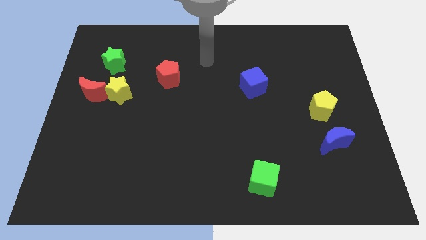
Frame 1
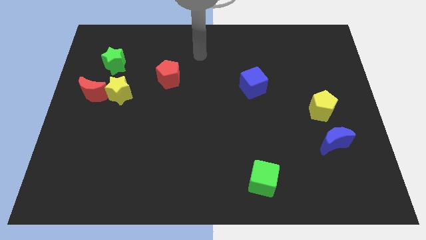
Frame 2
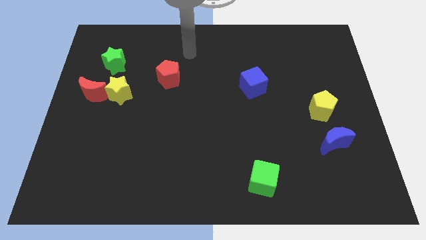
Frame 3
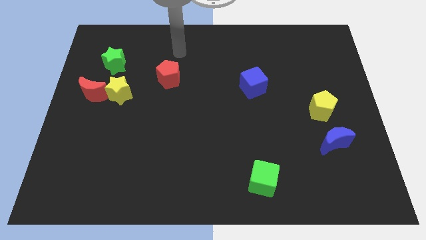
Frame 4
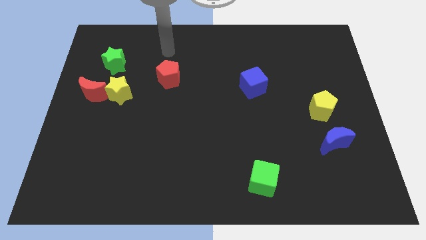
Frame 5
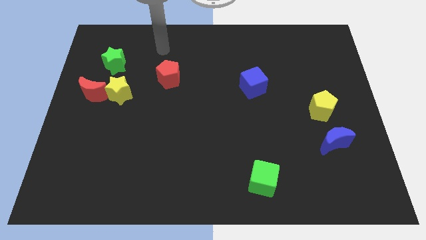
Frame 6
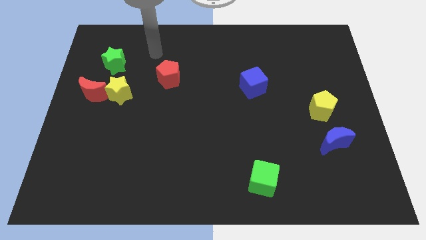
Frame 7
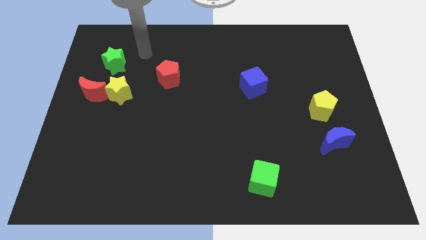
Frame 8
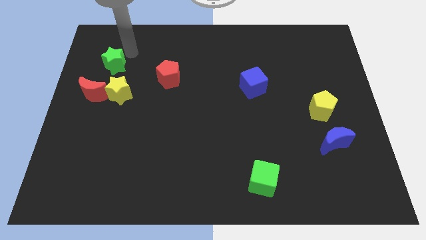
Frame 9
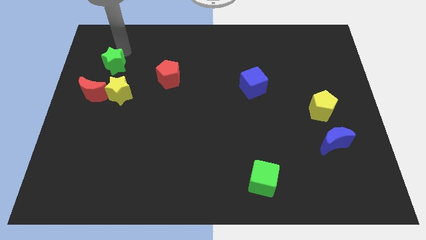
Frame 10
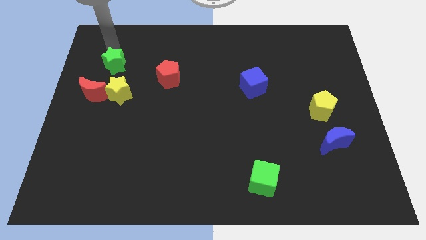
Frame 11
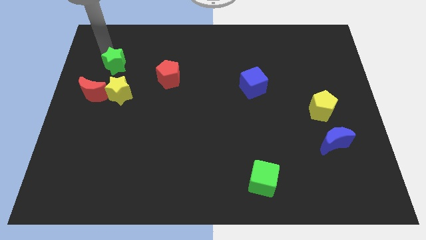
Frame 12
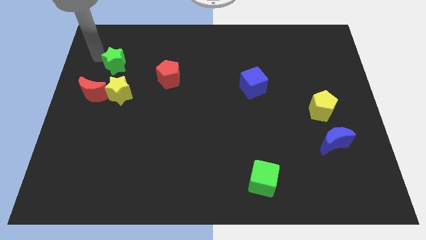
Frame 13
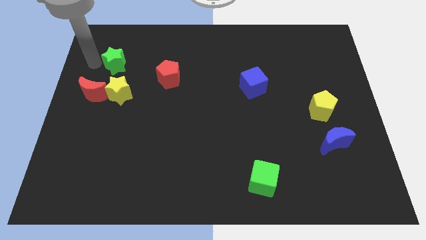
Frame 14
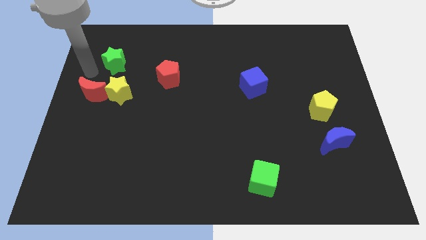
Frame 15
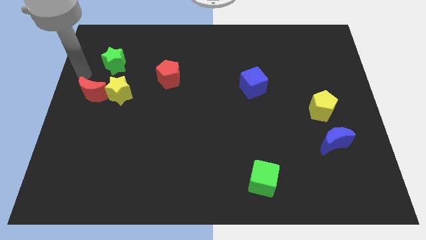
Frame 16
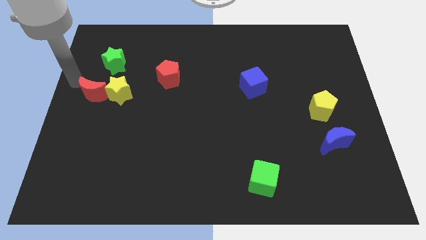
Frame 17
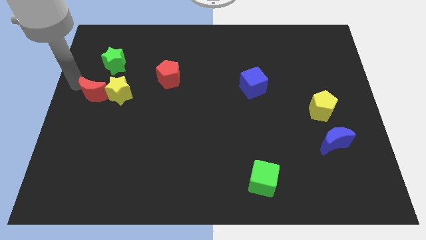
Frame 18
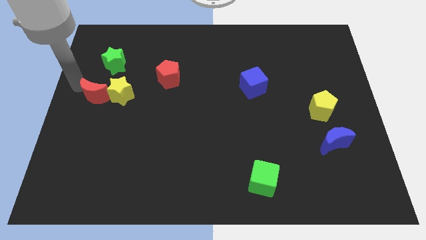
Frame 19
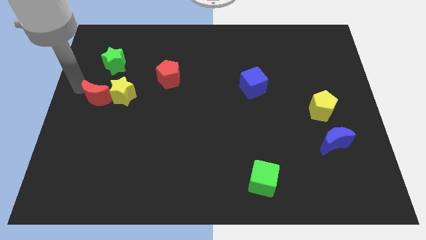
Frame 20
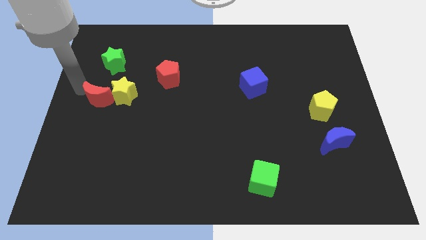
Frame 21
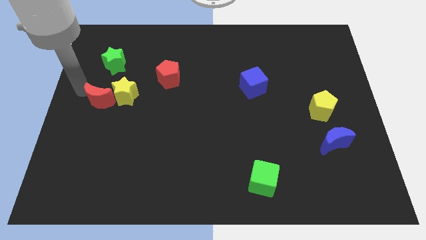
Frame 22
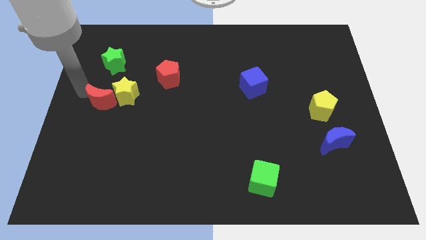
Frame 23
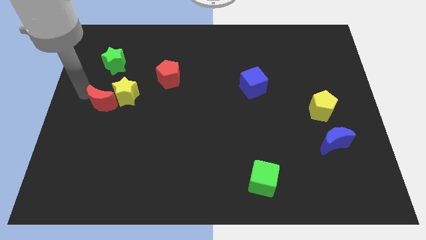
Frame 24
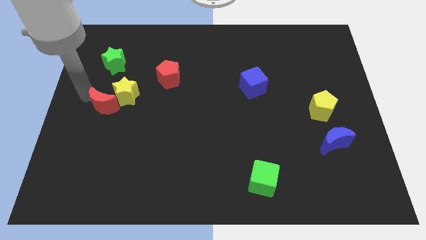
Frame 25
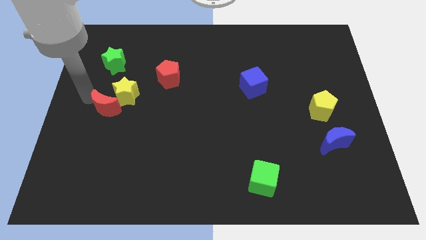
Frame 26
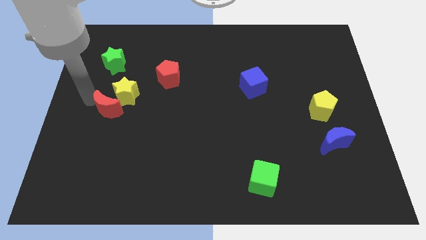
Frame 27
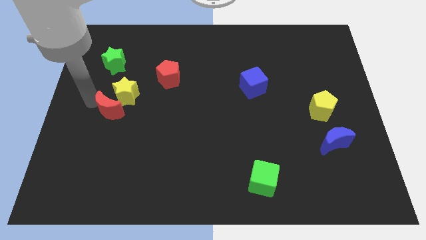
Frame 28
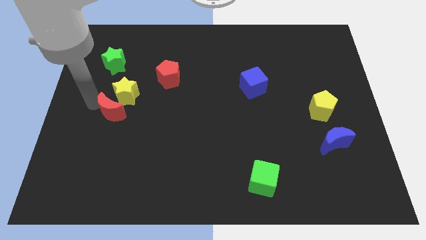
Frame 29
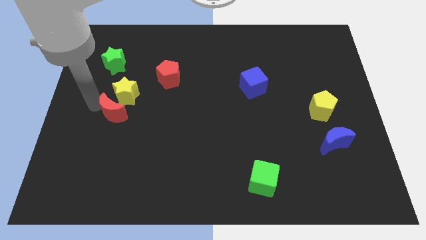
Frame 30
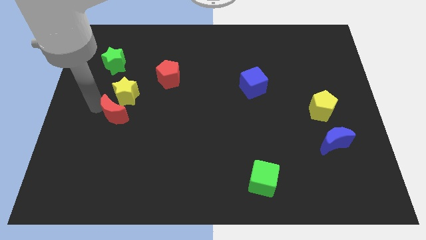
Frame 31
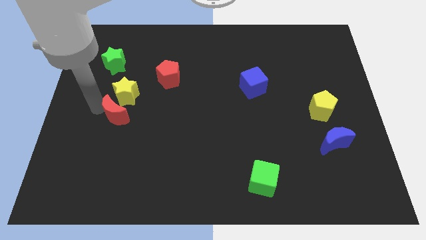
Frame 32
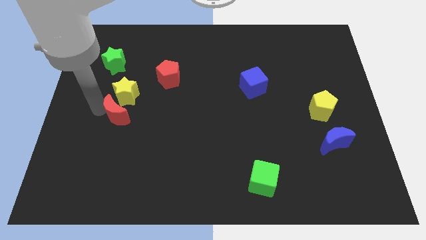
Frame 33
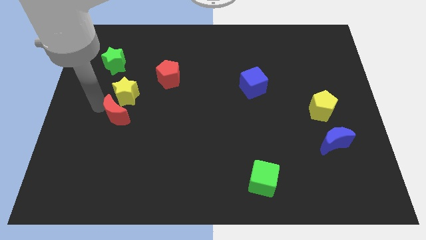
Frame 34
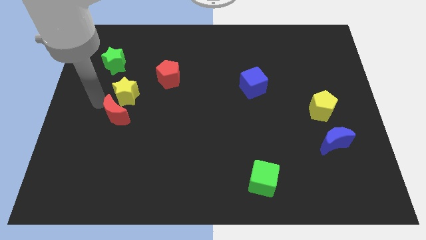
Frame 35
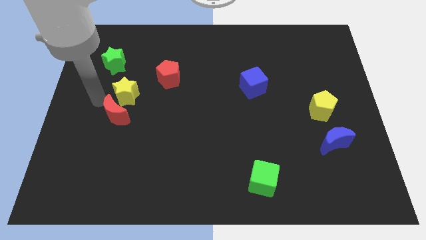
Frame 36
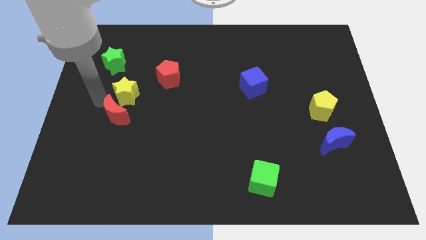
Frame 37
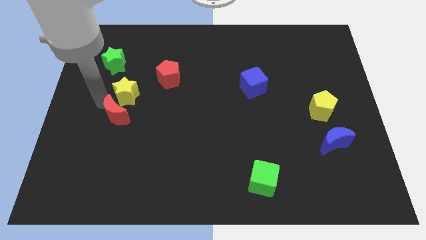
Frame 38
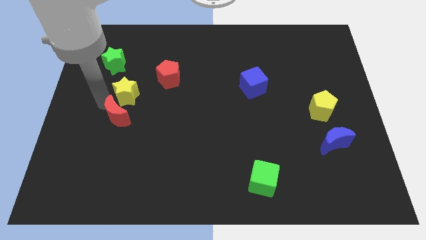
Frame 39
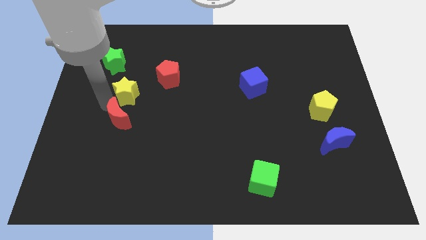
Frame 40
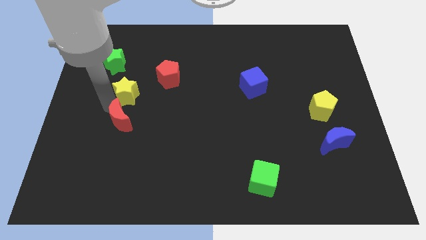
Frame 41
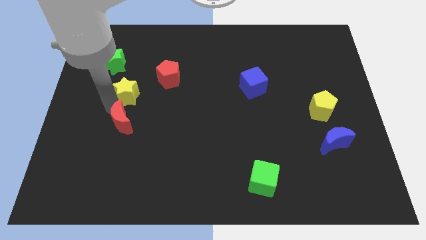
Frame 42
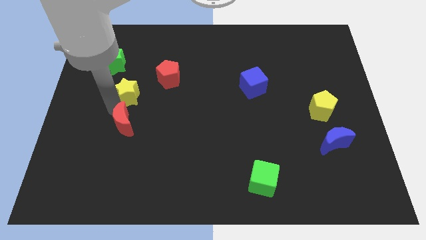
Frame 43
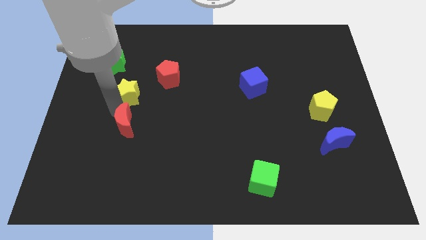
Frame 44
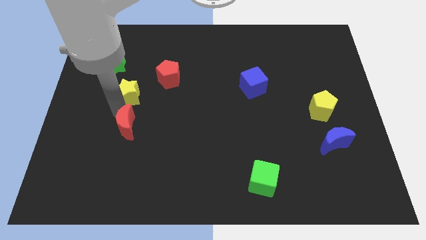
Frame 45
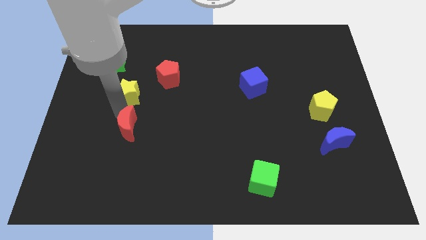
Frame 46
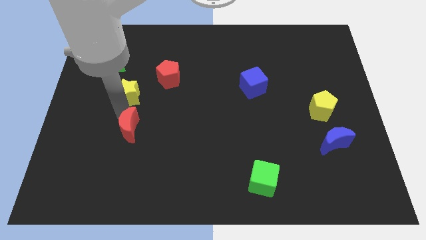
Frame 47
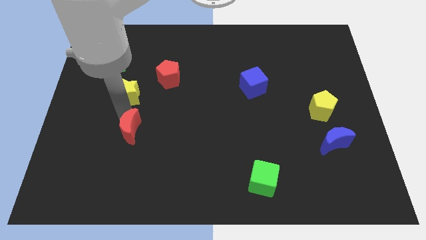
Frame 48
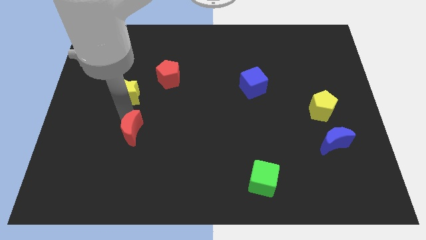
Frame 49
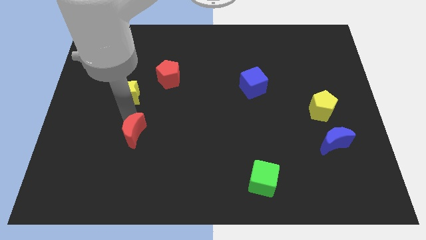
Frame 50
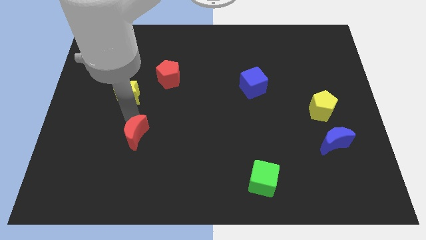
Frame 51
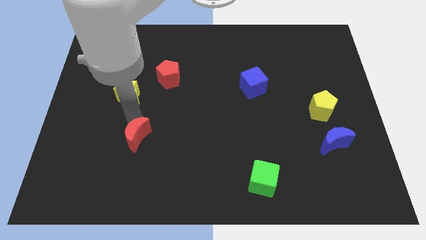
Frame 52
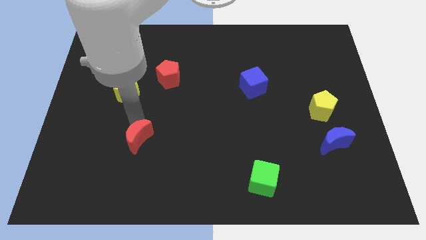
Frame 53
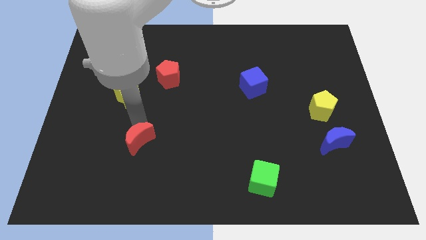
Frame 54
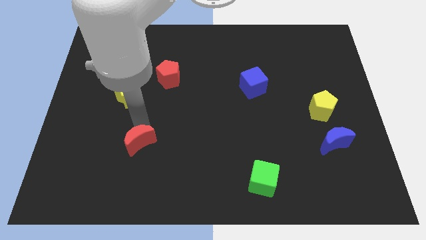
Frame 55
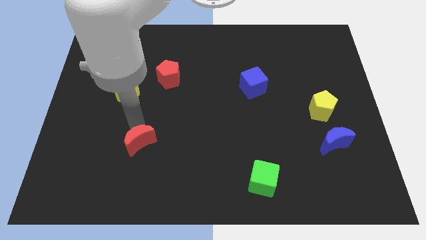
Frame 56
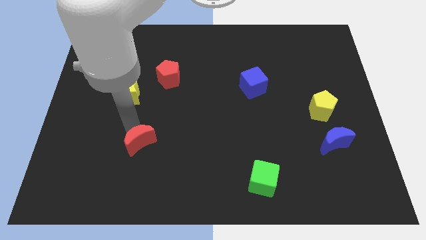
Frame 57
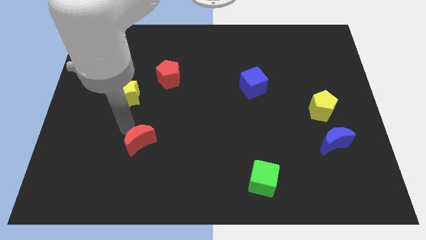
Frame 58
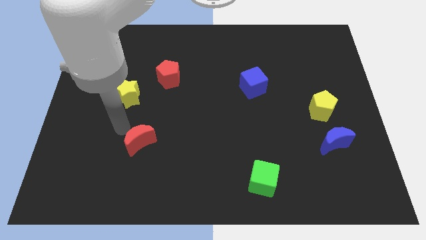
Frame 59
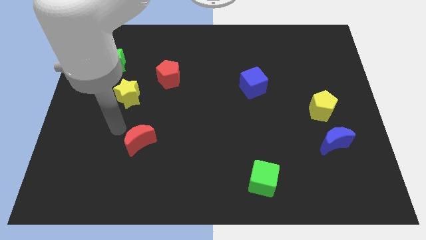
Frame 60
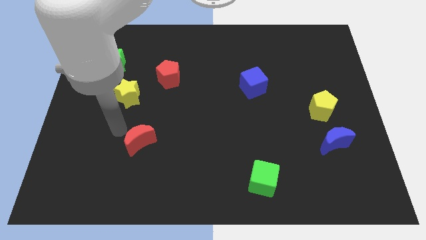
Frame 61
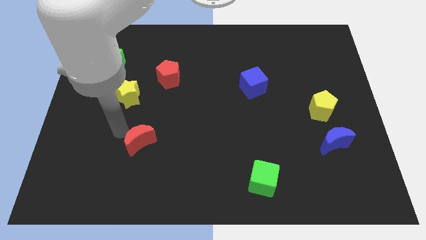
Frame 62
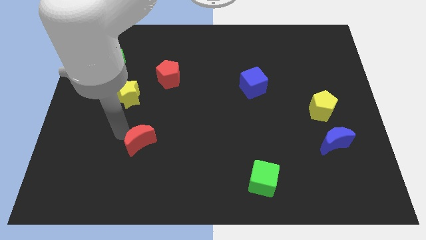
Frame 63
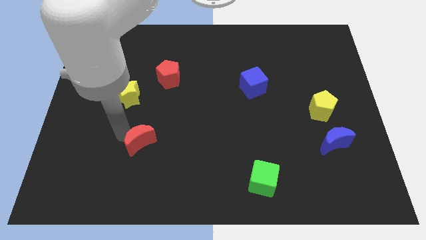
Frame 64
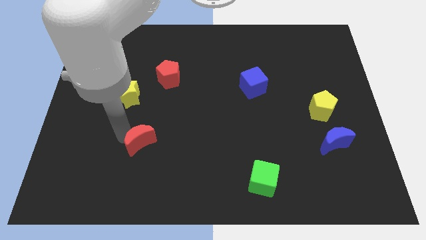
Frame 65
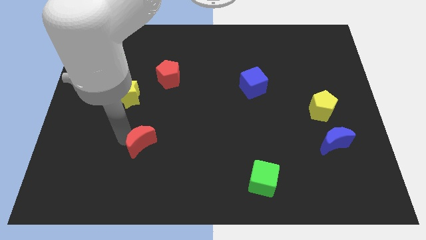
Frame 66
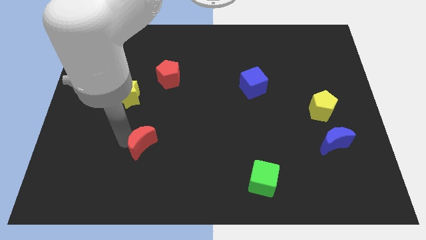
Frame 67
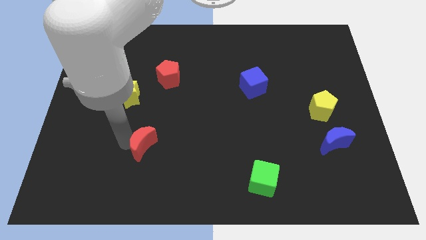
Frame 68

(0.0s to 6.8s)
move the red moon down and right diagonally

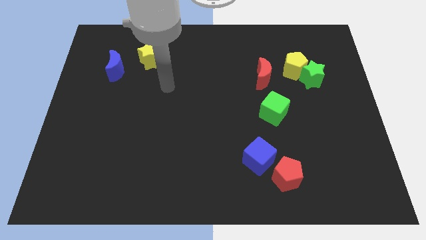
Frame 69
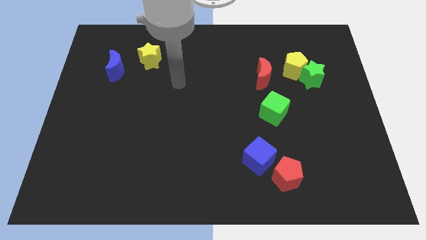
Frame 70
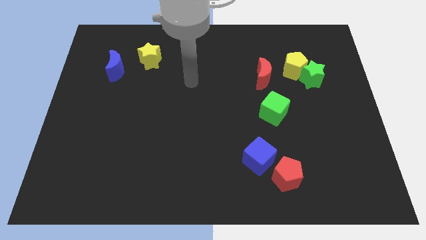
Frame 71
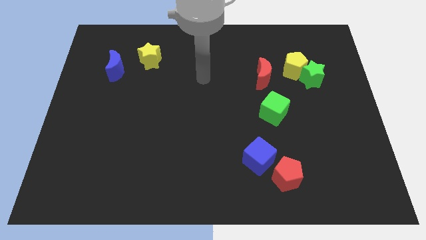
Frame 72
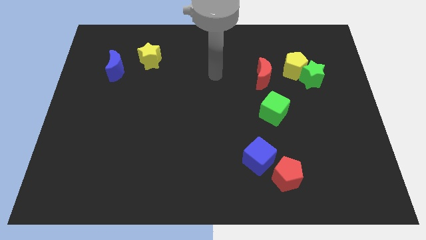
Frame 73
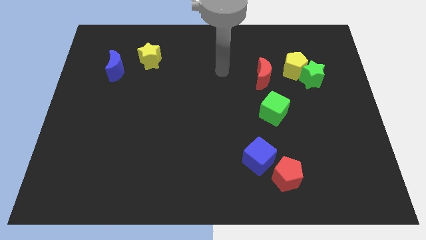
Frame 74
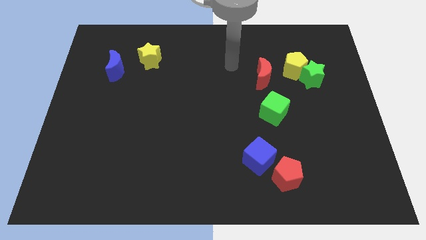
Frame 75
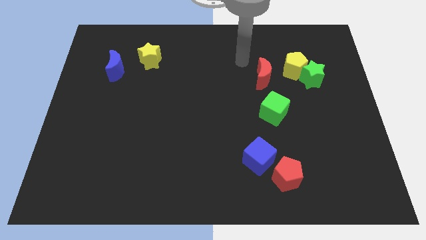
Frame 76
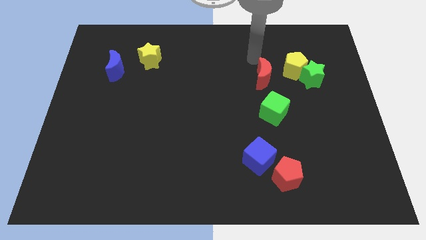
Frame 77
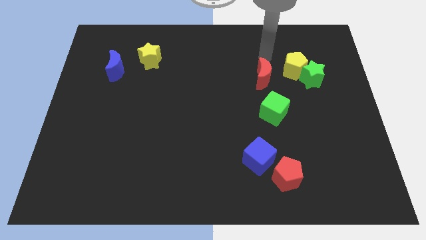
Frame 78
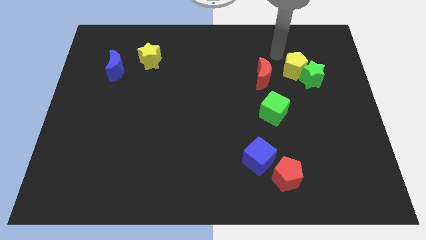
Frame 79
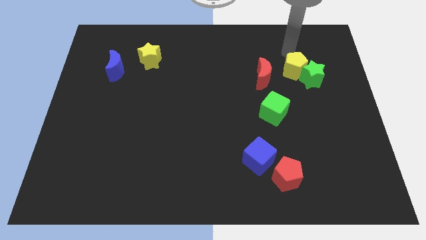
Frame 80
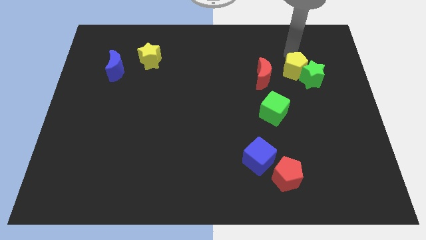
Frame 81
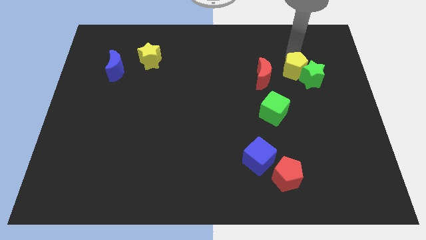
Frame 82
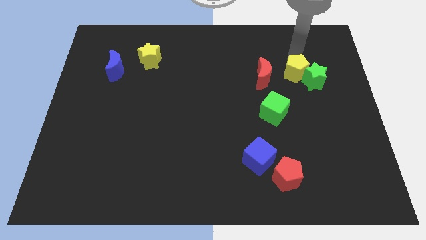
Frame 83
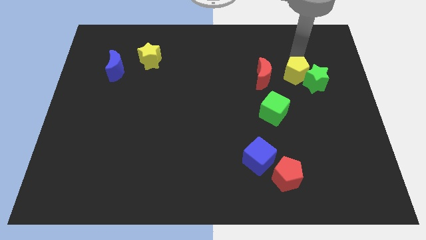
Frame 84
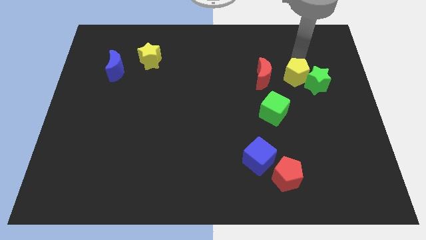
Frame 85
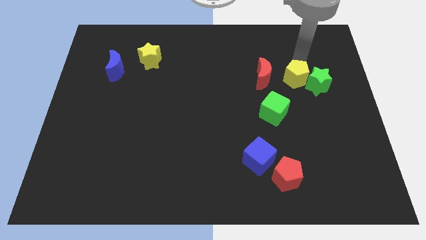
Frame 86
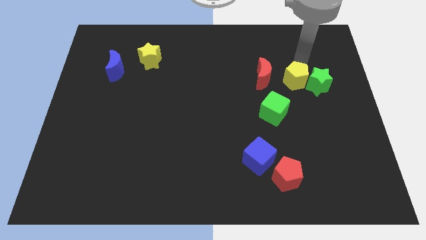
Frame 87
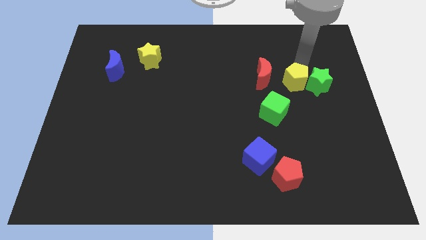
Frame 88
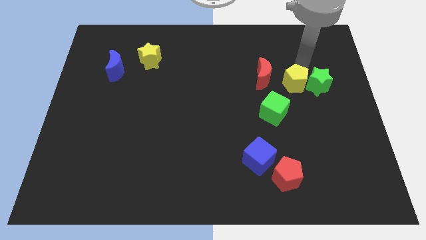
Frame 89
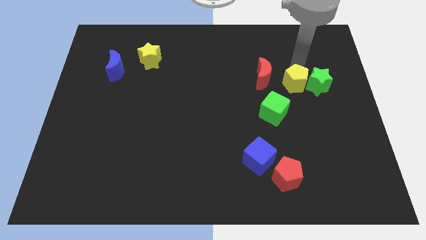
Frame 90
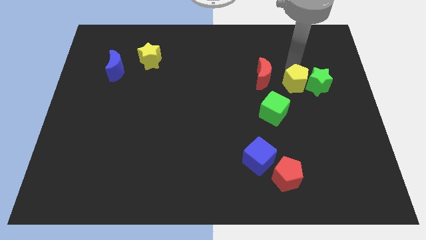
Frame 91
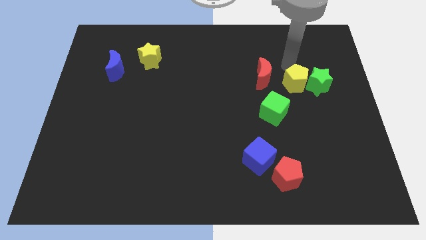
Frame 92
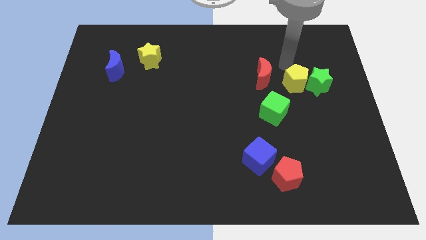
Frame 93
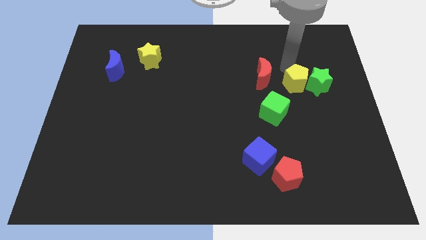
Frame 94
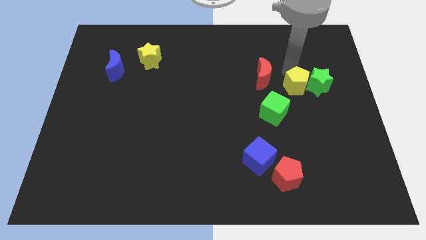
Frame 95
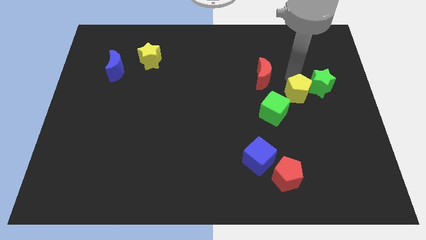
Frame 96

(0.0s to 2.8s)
slide the yellow pentagon down slightly
